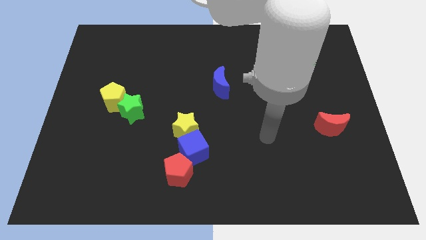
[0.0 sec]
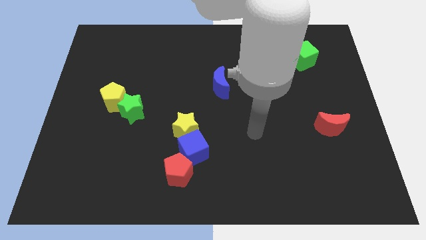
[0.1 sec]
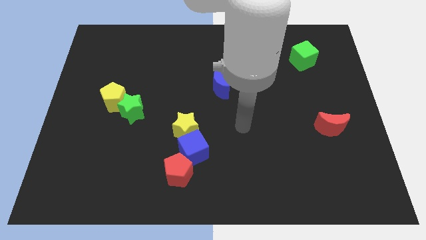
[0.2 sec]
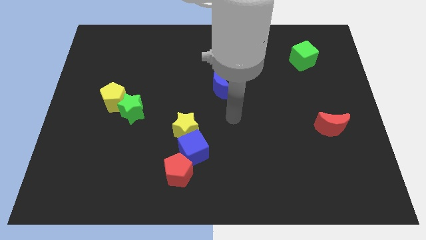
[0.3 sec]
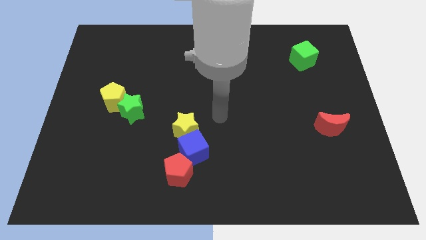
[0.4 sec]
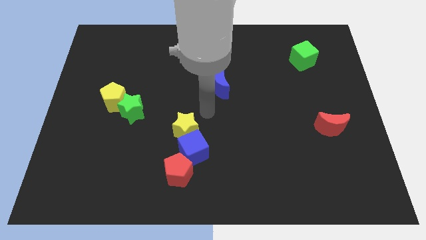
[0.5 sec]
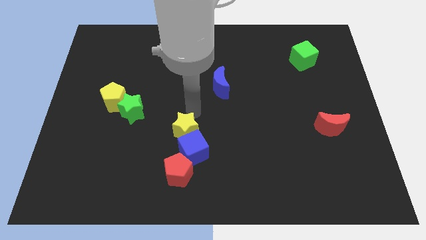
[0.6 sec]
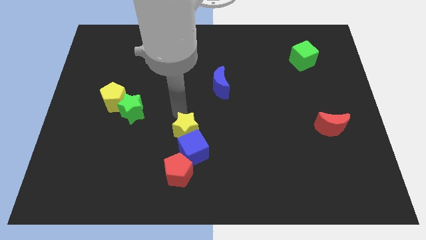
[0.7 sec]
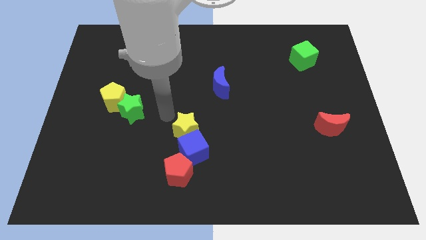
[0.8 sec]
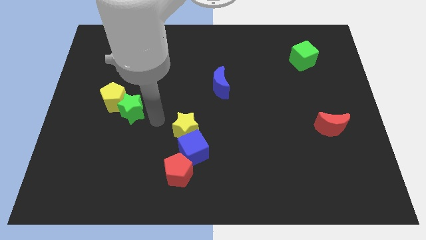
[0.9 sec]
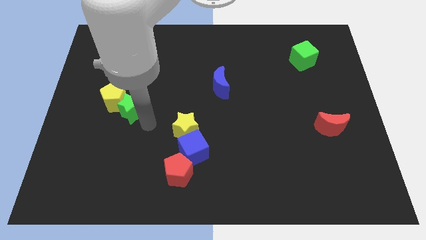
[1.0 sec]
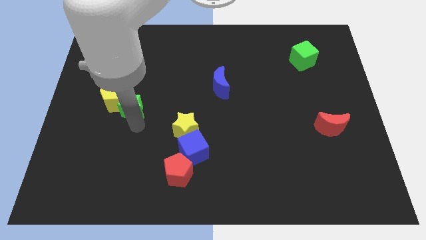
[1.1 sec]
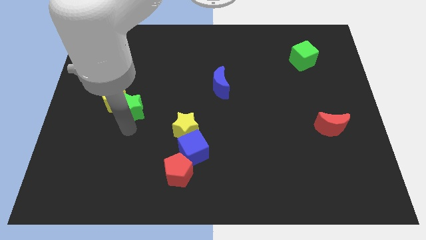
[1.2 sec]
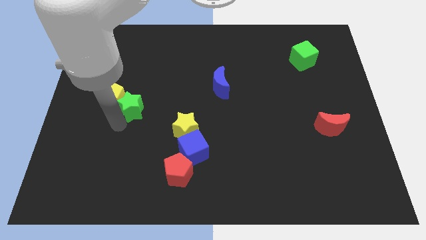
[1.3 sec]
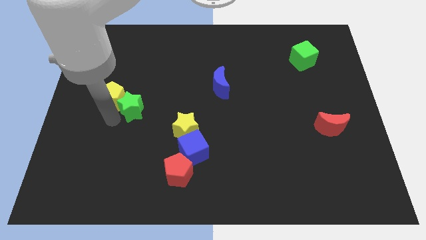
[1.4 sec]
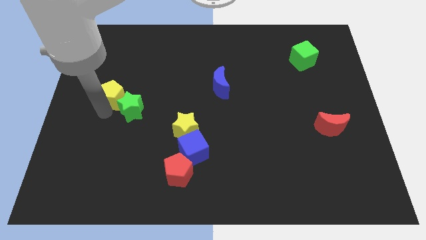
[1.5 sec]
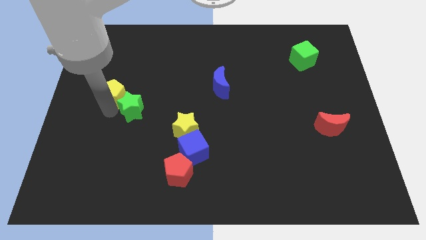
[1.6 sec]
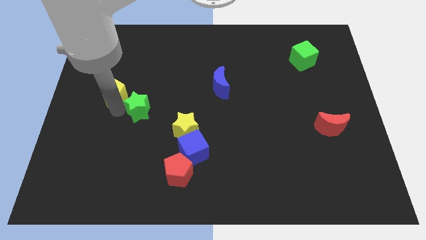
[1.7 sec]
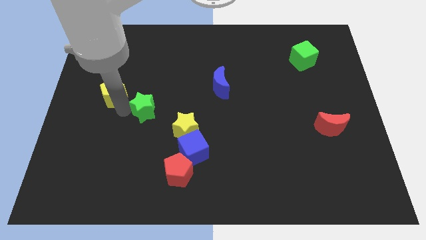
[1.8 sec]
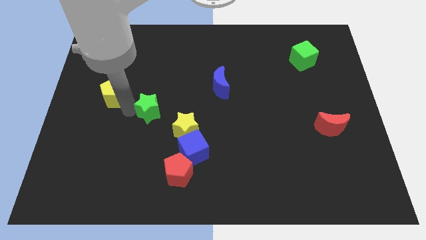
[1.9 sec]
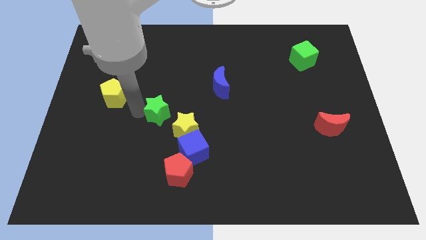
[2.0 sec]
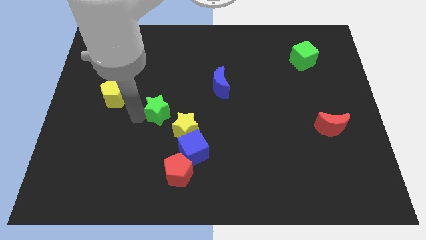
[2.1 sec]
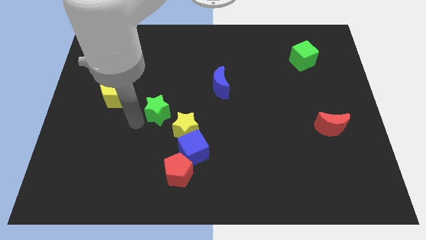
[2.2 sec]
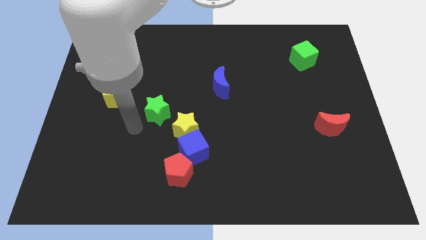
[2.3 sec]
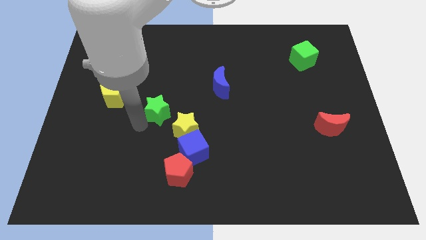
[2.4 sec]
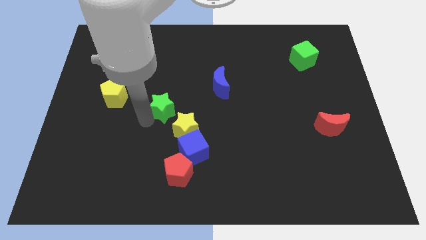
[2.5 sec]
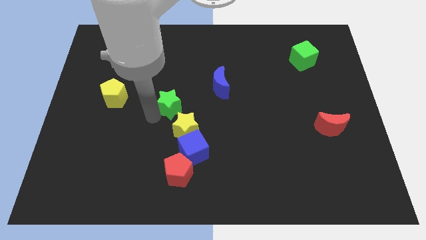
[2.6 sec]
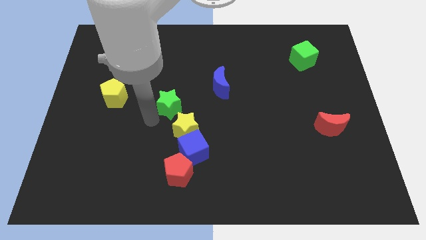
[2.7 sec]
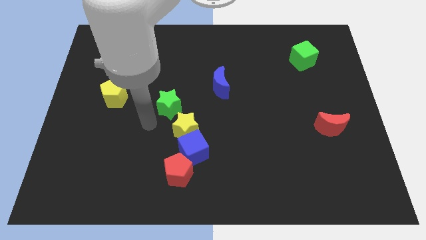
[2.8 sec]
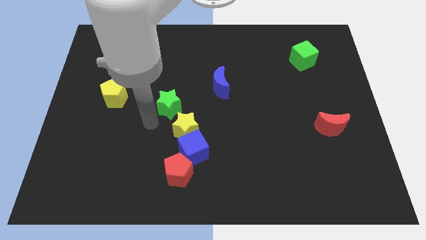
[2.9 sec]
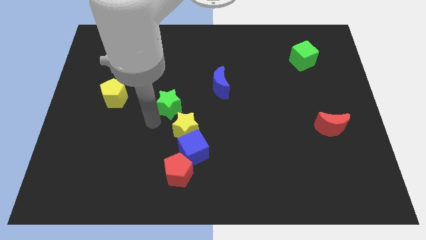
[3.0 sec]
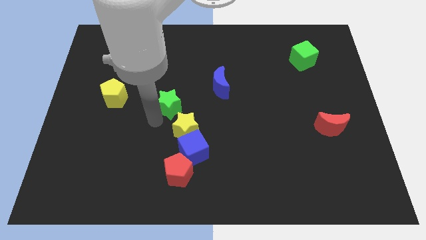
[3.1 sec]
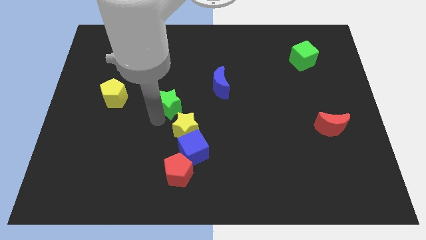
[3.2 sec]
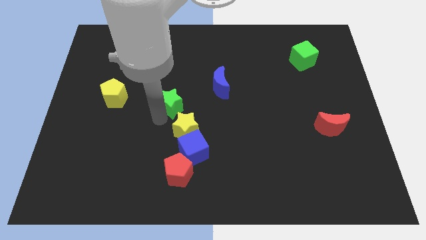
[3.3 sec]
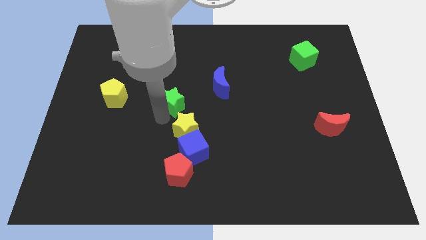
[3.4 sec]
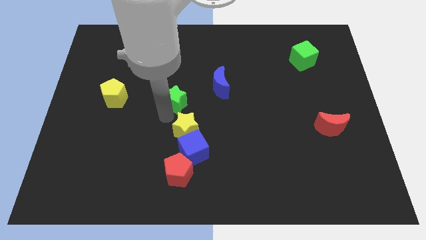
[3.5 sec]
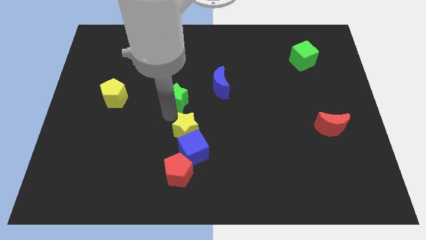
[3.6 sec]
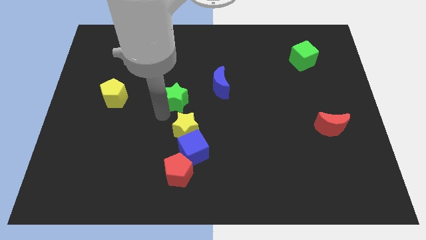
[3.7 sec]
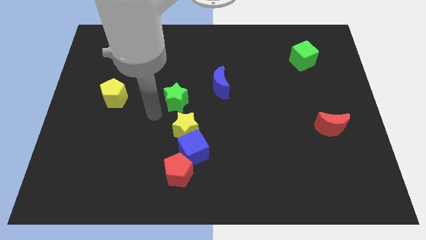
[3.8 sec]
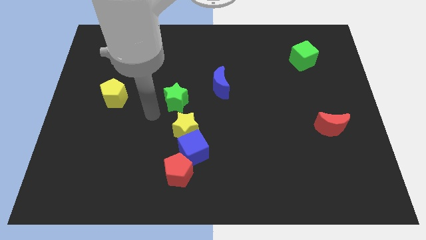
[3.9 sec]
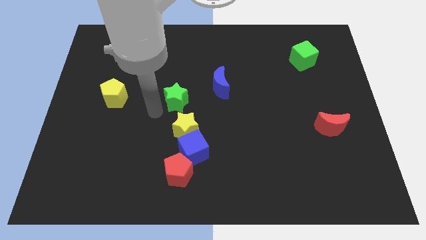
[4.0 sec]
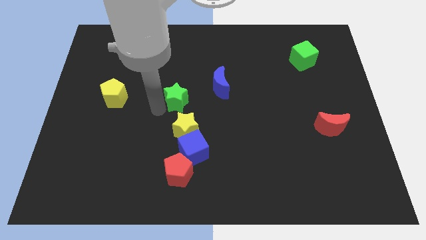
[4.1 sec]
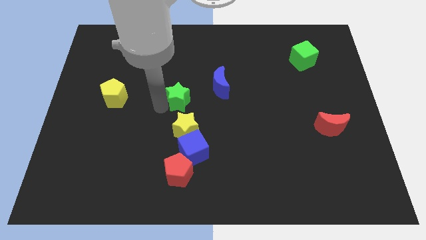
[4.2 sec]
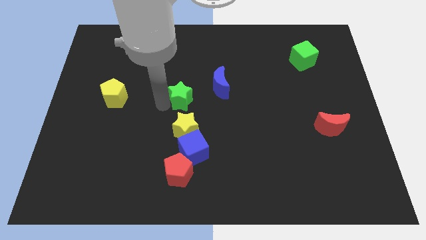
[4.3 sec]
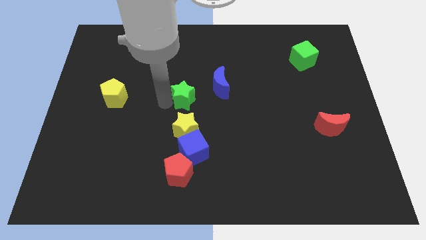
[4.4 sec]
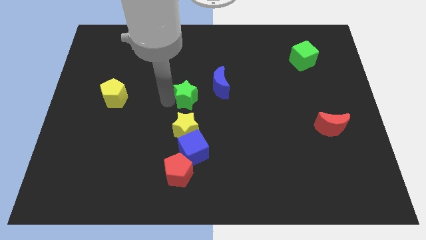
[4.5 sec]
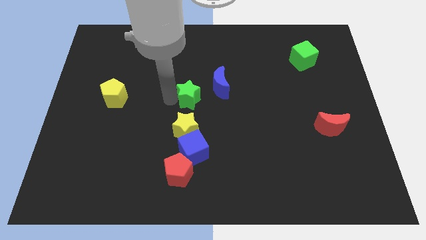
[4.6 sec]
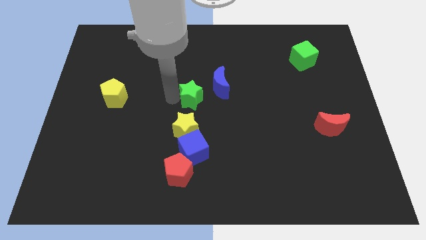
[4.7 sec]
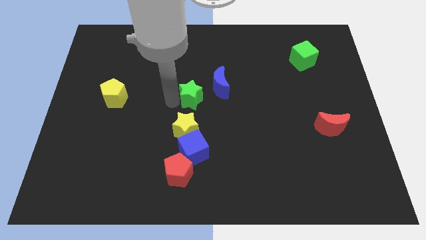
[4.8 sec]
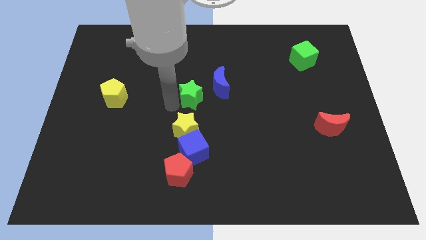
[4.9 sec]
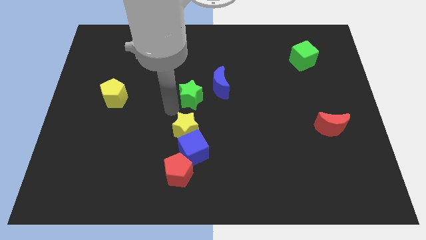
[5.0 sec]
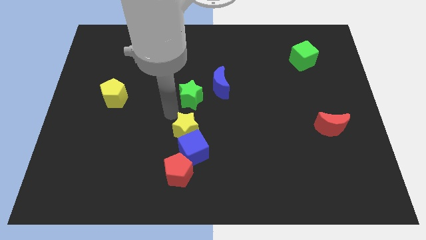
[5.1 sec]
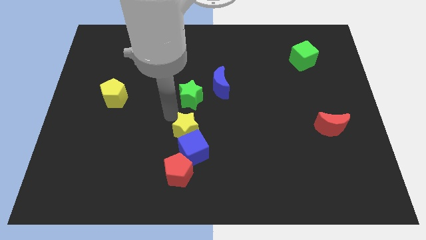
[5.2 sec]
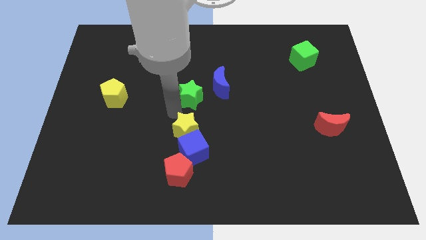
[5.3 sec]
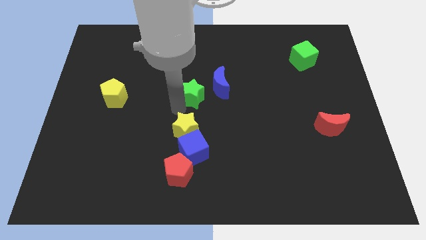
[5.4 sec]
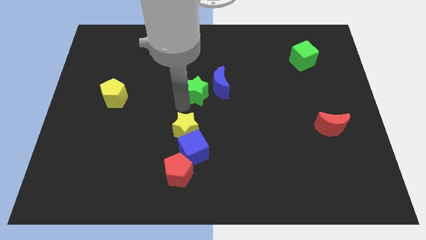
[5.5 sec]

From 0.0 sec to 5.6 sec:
move the green star towards the blue moon

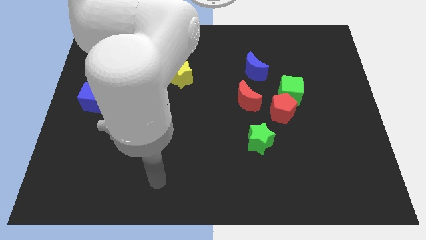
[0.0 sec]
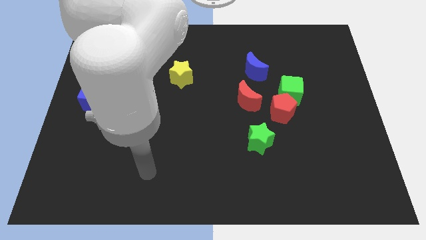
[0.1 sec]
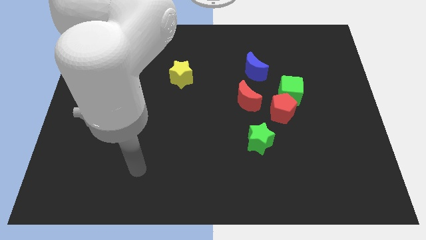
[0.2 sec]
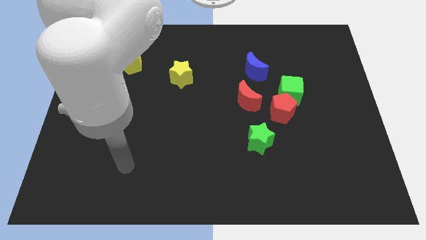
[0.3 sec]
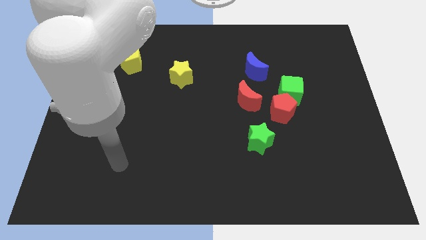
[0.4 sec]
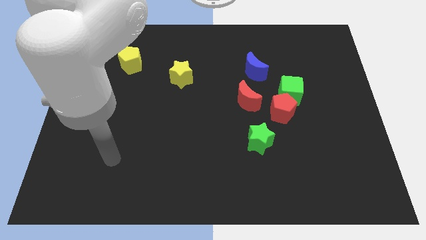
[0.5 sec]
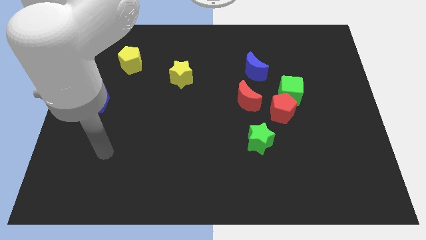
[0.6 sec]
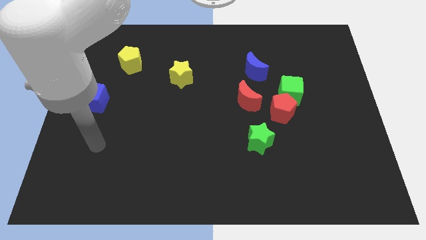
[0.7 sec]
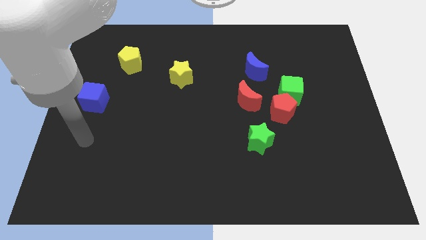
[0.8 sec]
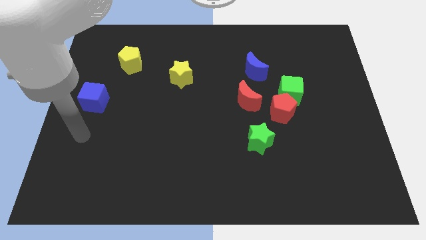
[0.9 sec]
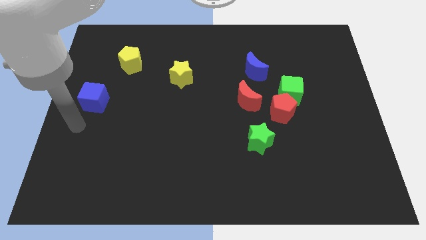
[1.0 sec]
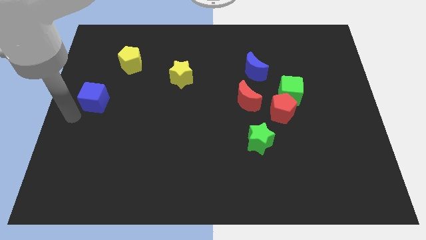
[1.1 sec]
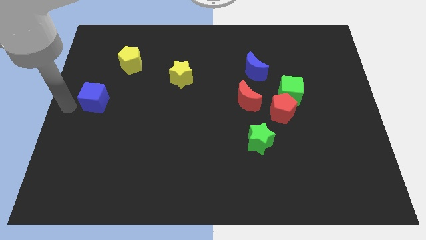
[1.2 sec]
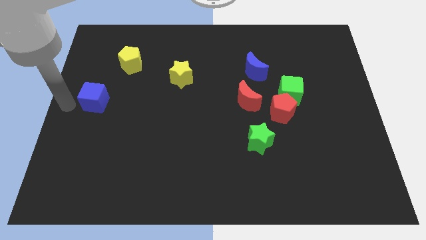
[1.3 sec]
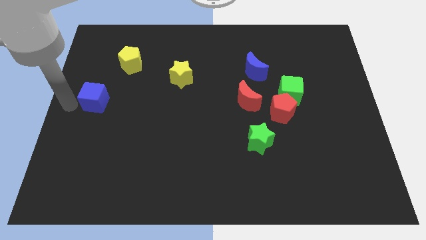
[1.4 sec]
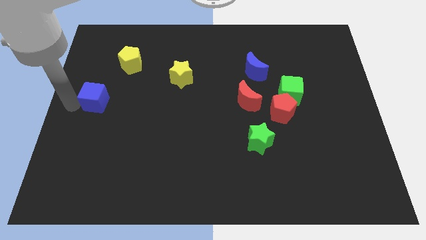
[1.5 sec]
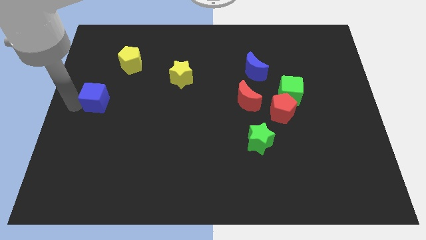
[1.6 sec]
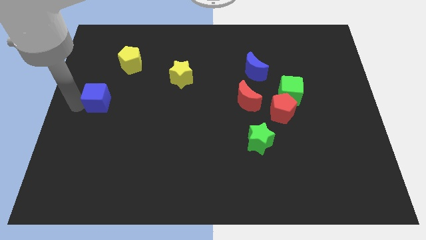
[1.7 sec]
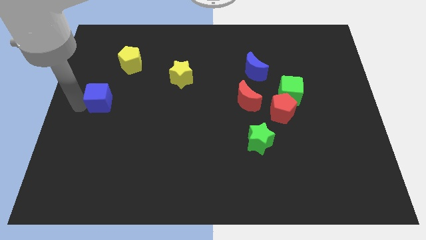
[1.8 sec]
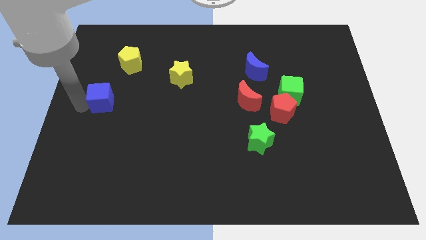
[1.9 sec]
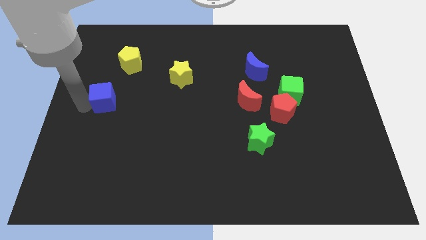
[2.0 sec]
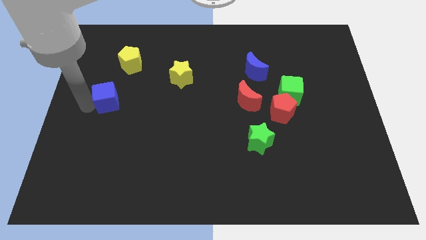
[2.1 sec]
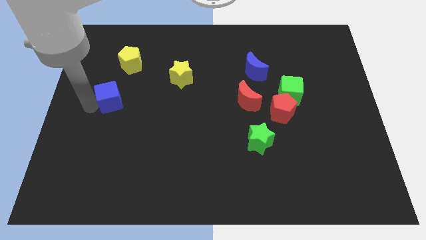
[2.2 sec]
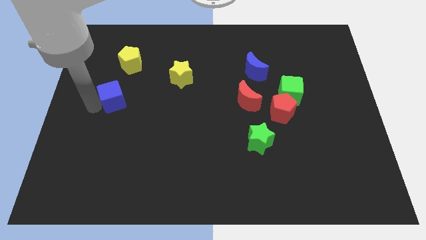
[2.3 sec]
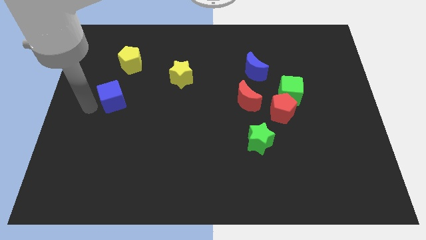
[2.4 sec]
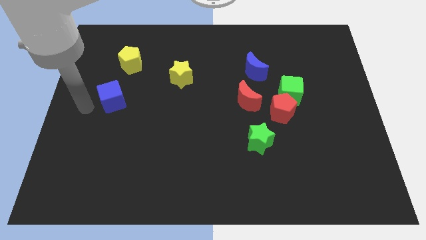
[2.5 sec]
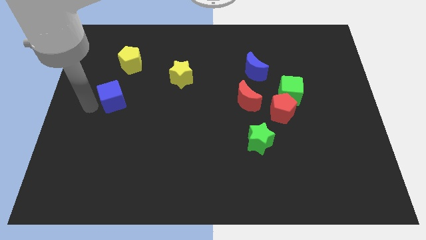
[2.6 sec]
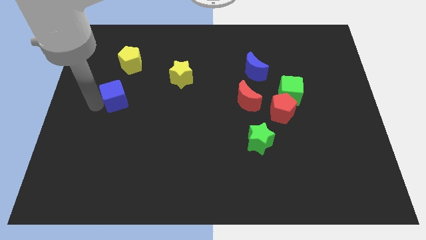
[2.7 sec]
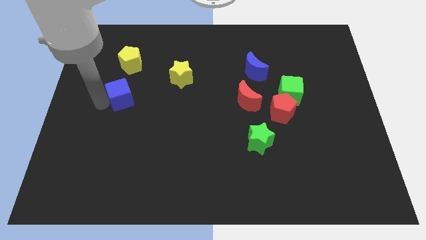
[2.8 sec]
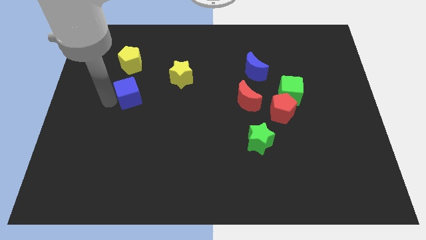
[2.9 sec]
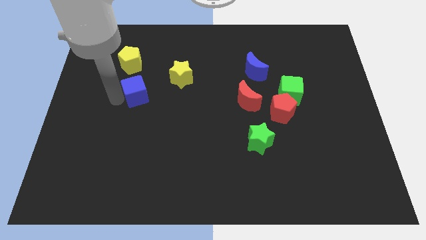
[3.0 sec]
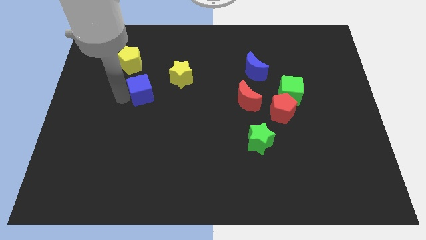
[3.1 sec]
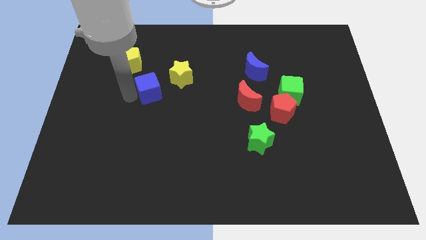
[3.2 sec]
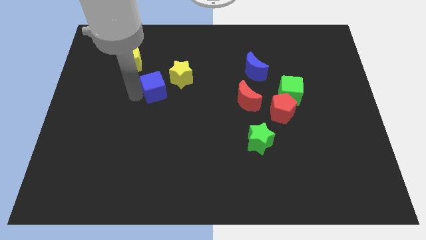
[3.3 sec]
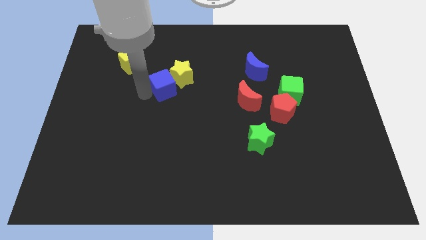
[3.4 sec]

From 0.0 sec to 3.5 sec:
push the blue cube towards the yellow star
